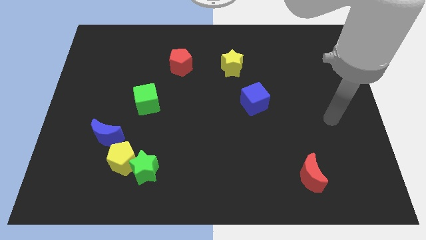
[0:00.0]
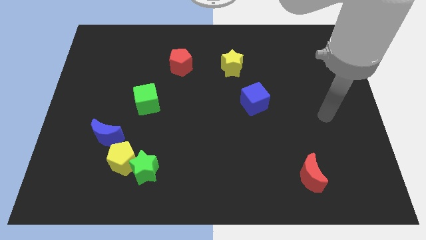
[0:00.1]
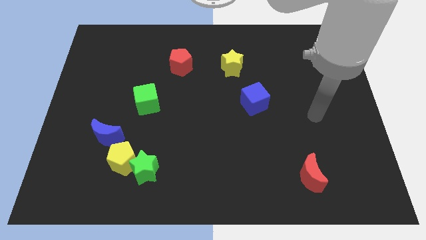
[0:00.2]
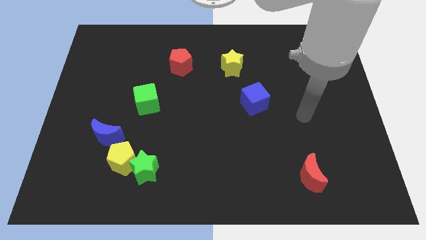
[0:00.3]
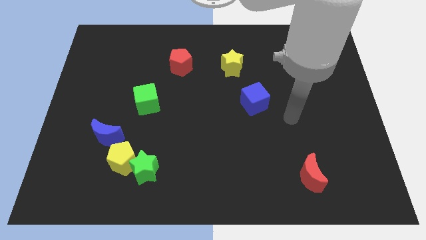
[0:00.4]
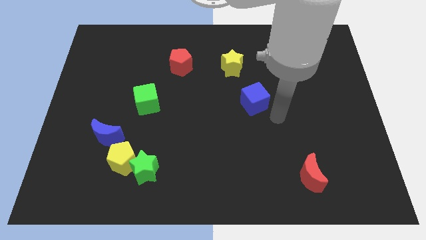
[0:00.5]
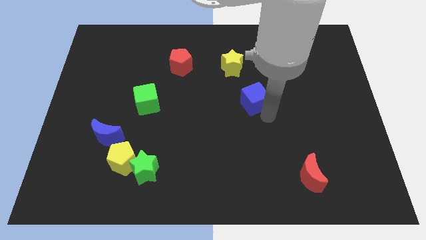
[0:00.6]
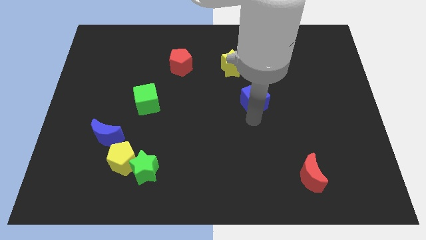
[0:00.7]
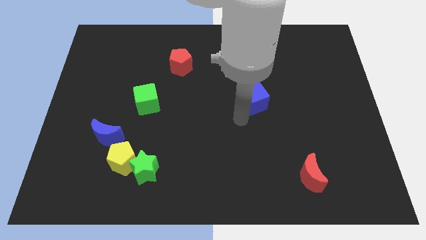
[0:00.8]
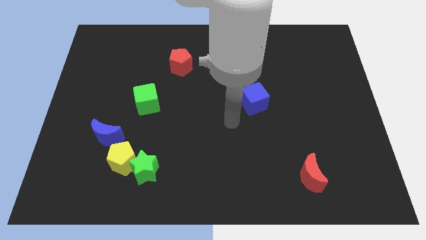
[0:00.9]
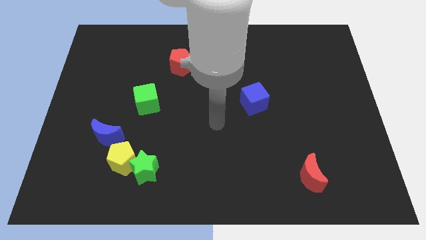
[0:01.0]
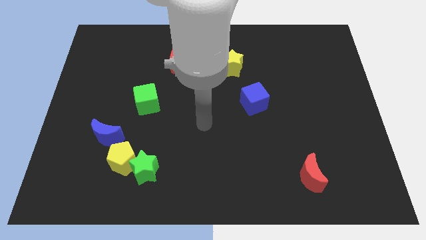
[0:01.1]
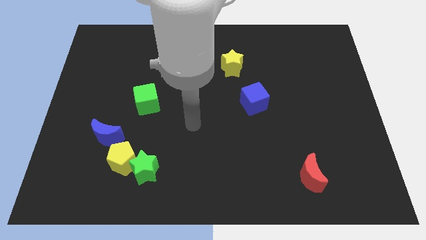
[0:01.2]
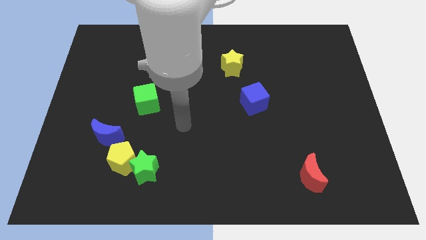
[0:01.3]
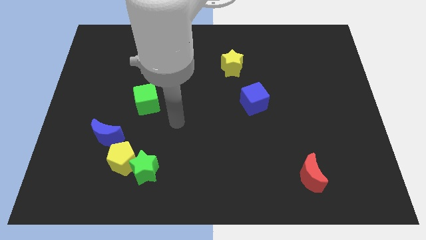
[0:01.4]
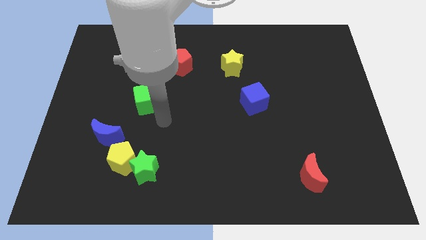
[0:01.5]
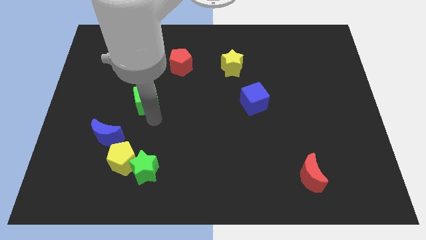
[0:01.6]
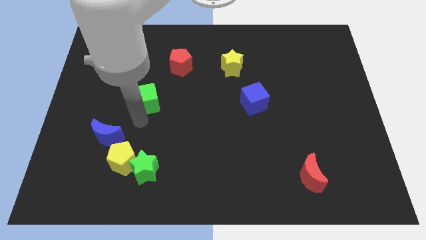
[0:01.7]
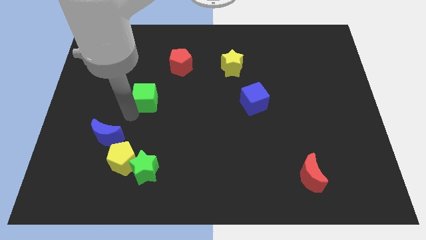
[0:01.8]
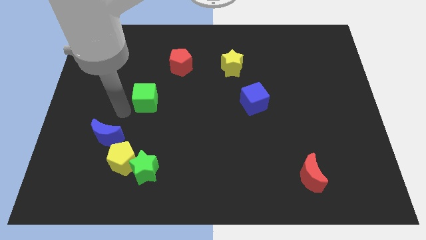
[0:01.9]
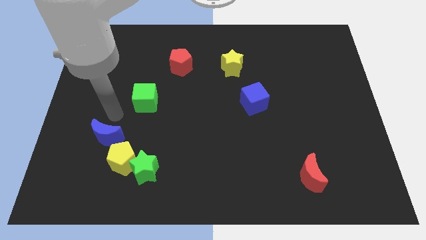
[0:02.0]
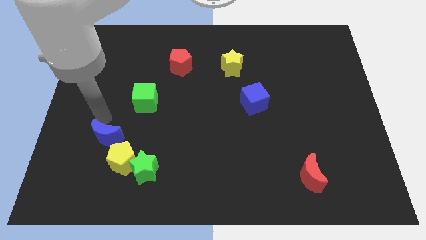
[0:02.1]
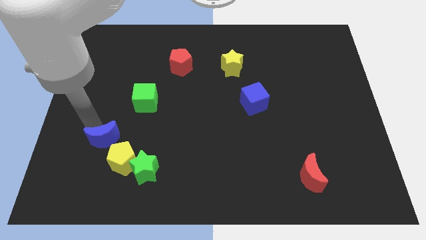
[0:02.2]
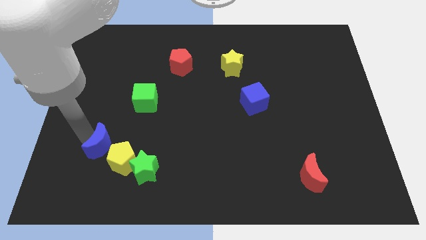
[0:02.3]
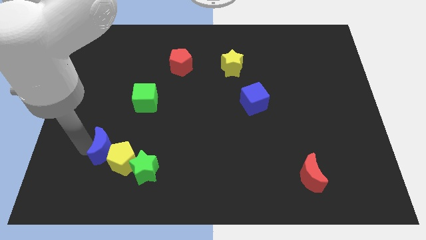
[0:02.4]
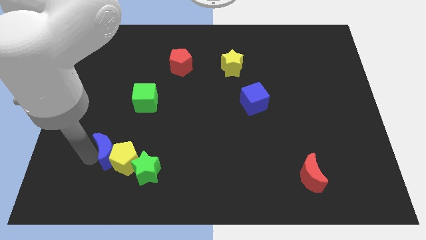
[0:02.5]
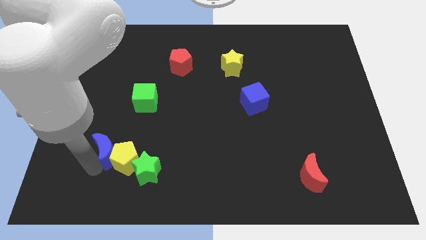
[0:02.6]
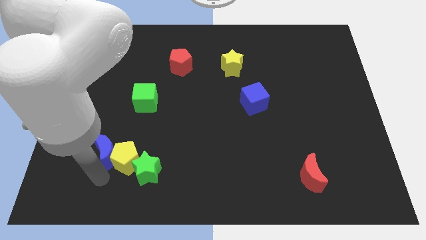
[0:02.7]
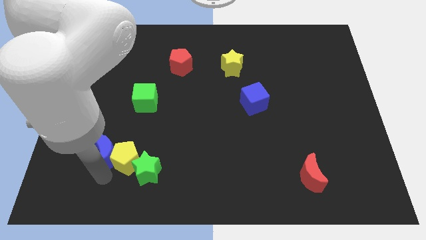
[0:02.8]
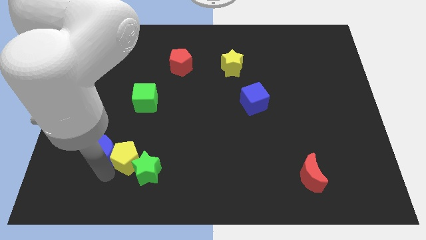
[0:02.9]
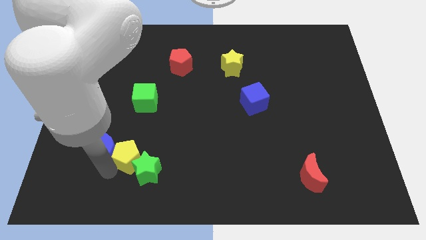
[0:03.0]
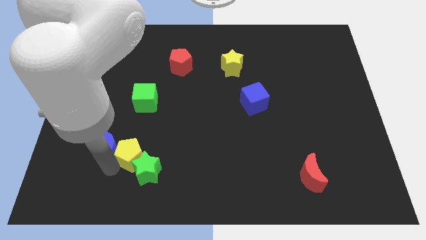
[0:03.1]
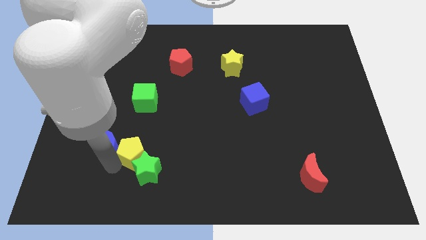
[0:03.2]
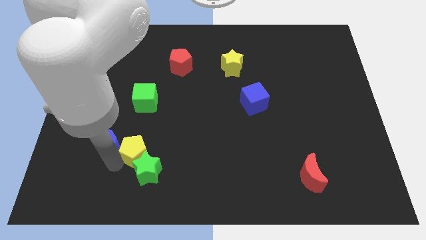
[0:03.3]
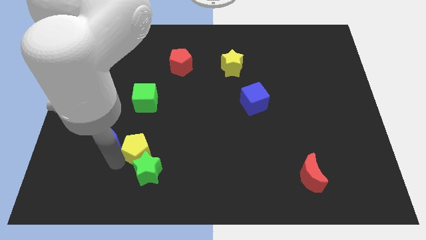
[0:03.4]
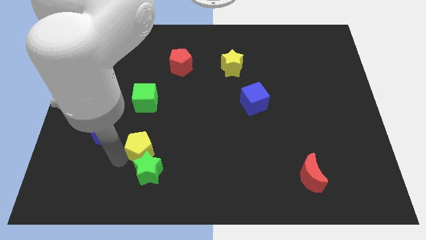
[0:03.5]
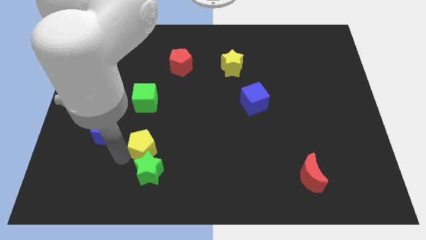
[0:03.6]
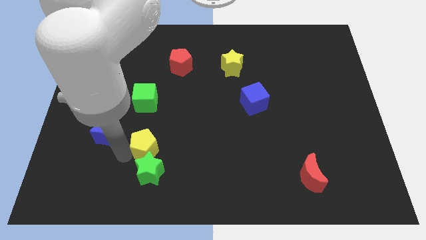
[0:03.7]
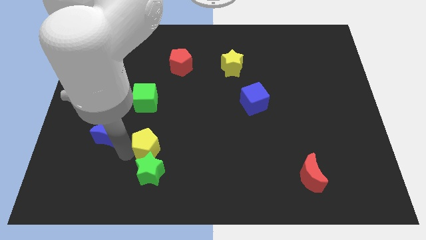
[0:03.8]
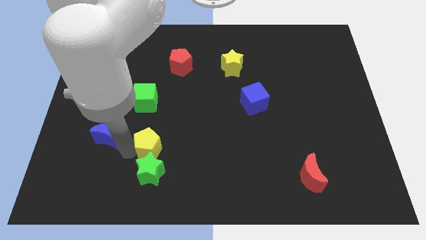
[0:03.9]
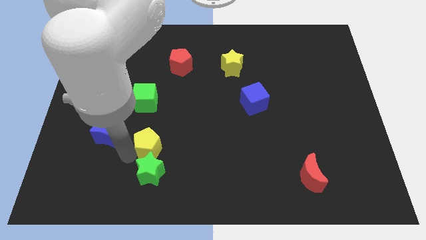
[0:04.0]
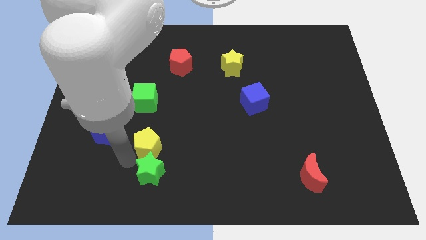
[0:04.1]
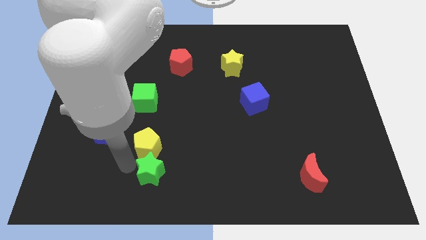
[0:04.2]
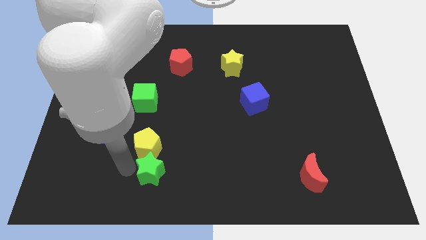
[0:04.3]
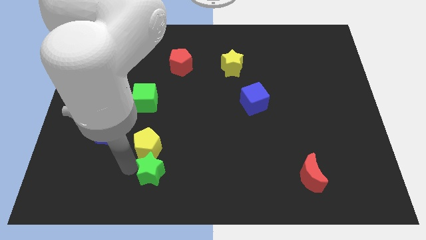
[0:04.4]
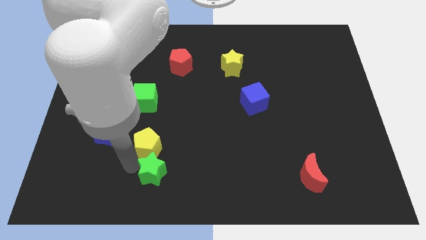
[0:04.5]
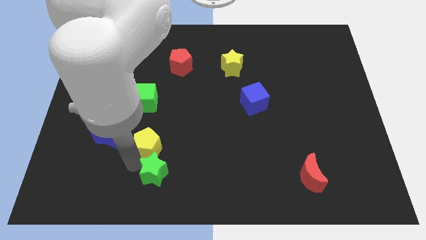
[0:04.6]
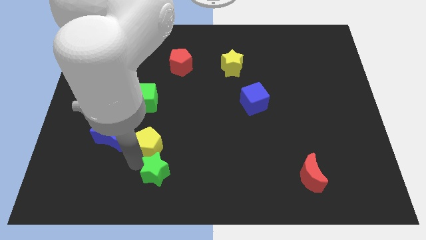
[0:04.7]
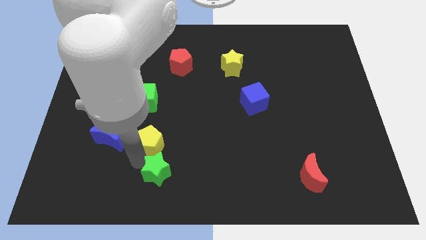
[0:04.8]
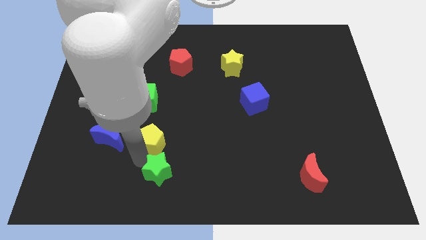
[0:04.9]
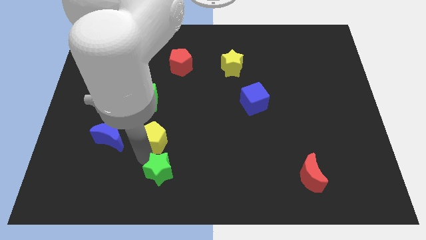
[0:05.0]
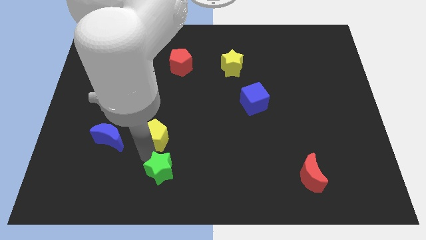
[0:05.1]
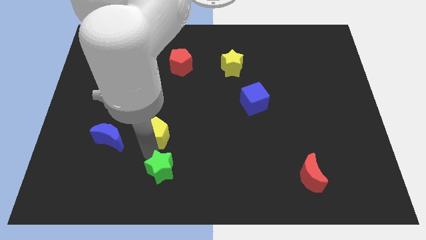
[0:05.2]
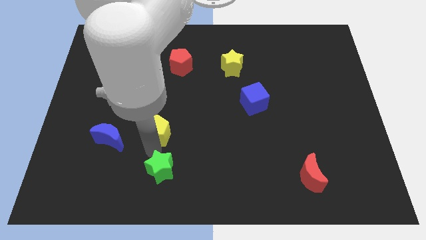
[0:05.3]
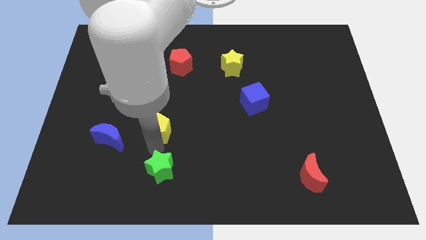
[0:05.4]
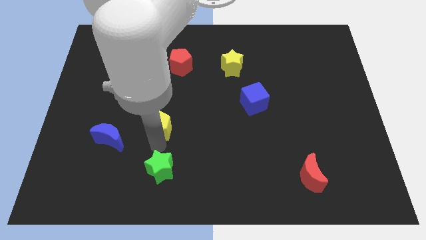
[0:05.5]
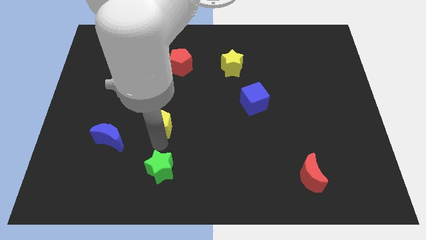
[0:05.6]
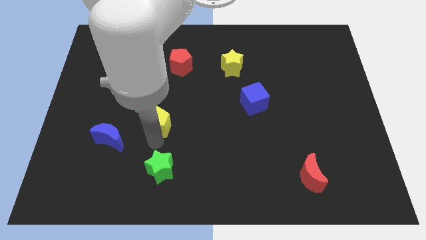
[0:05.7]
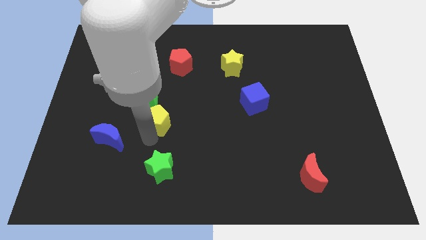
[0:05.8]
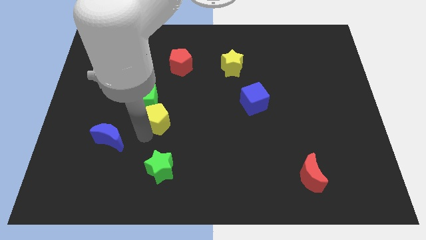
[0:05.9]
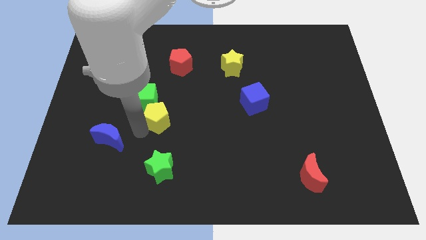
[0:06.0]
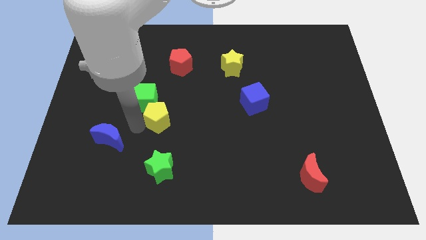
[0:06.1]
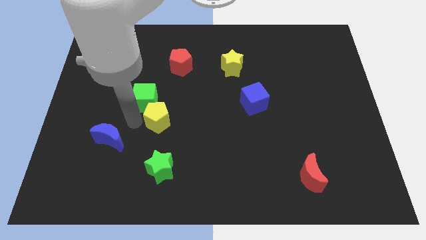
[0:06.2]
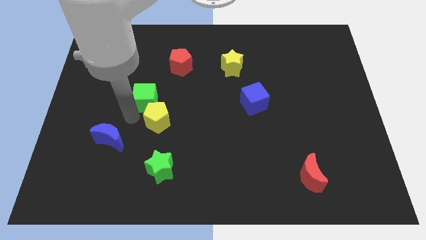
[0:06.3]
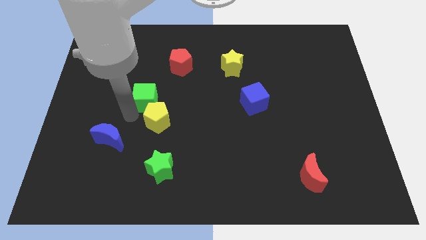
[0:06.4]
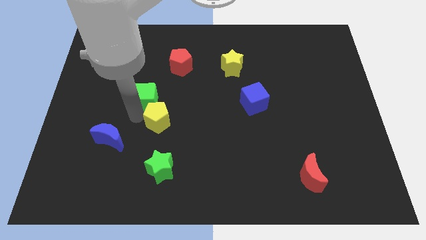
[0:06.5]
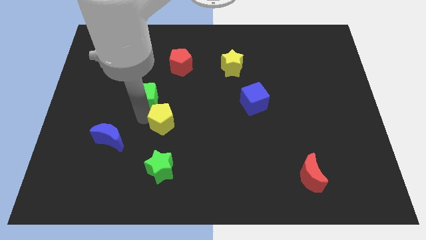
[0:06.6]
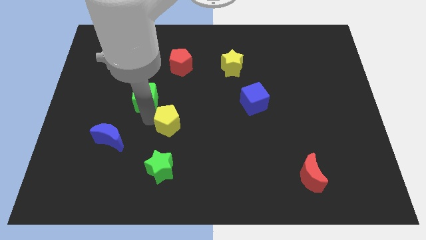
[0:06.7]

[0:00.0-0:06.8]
put the yellow pentagon to the middle of the board
